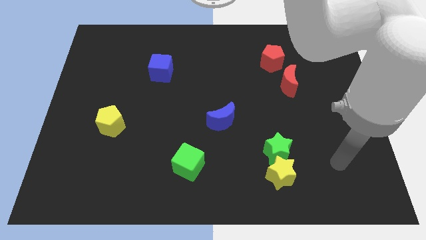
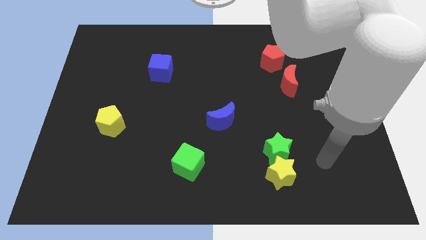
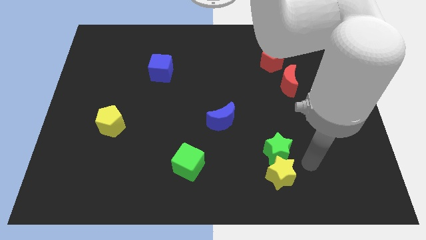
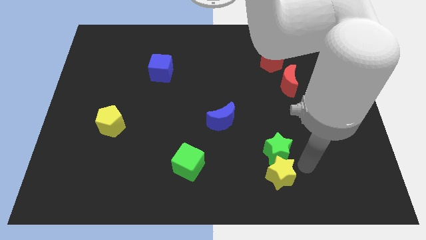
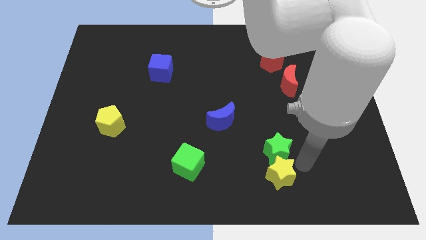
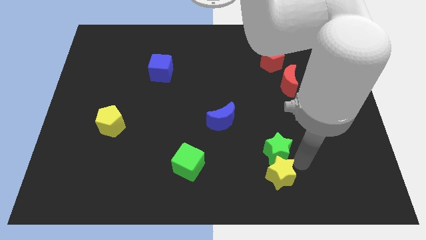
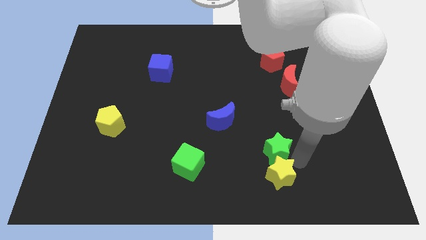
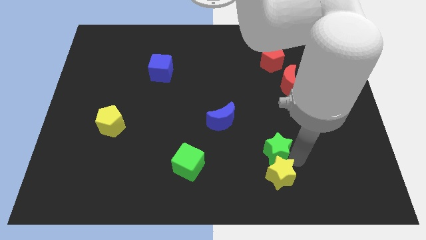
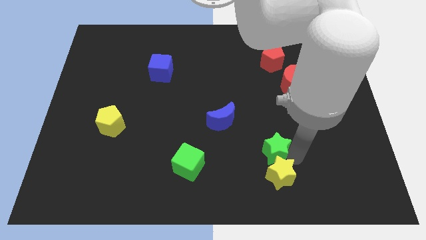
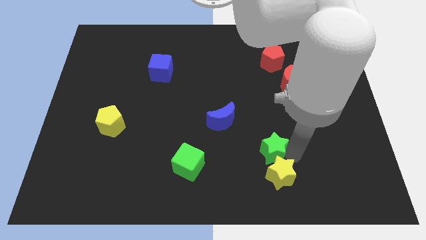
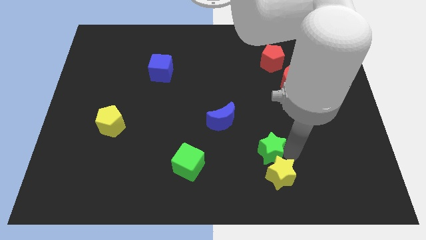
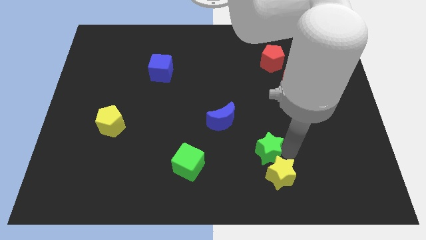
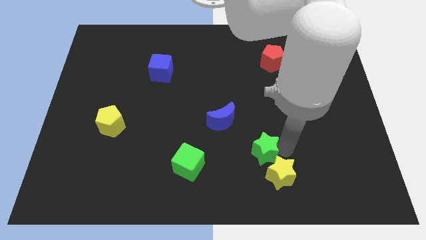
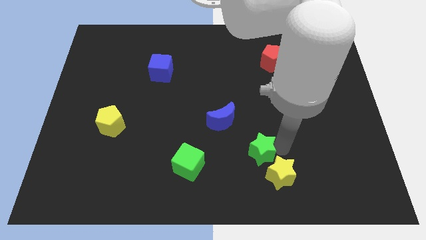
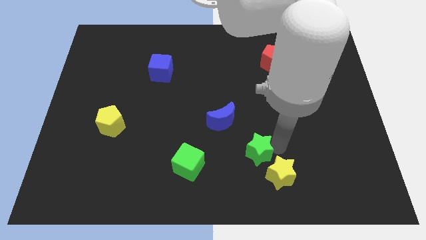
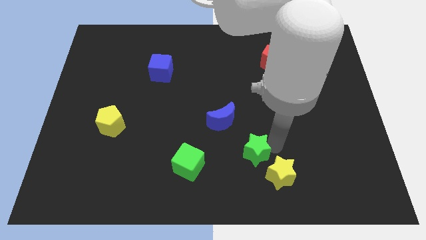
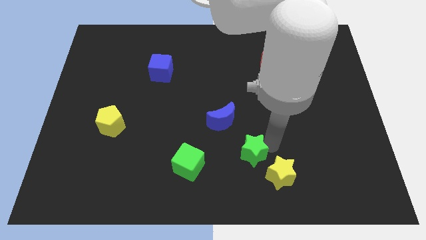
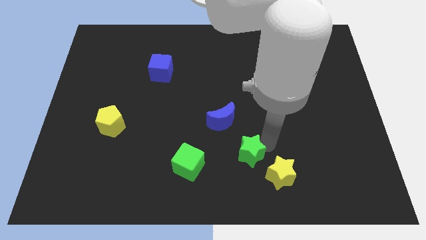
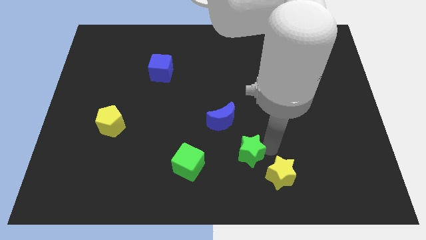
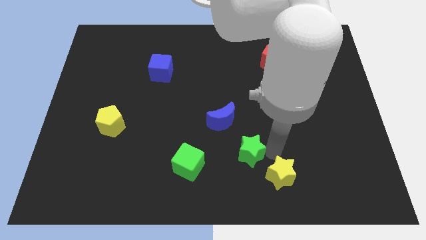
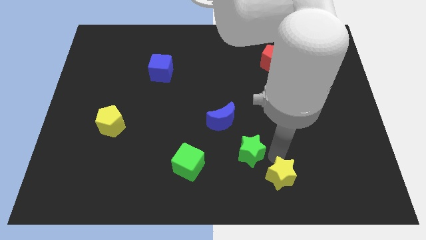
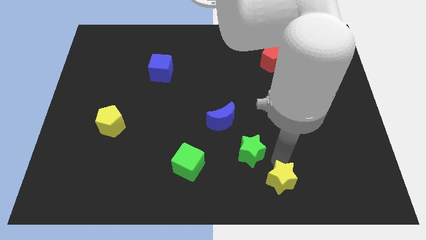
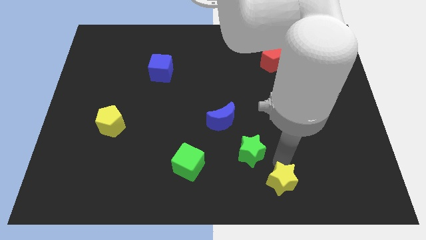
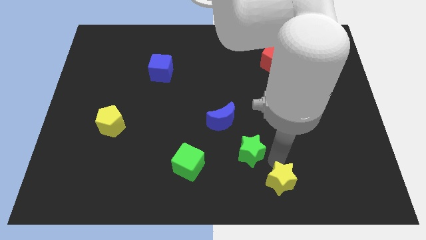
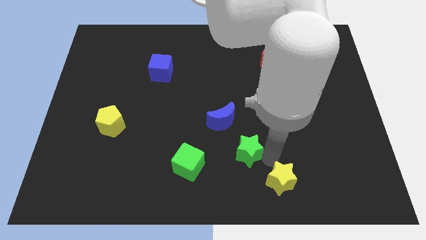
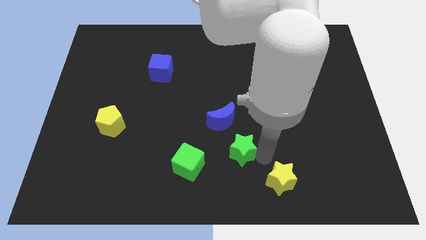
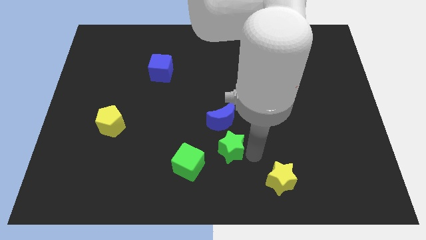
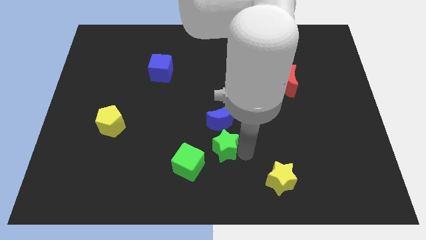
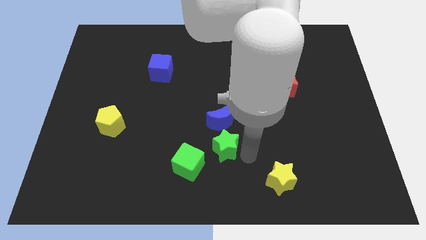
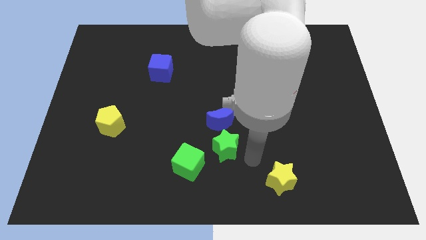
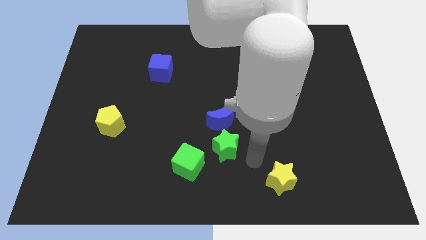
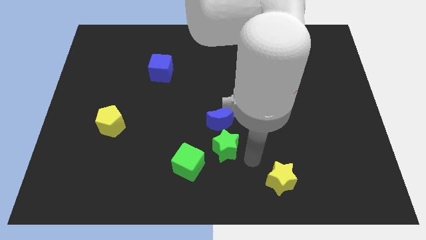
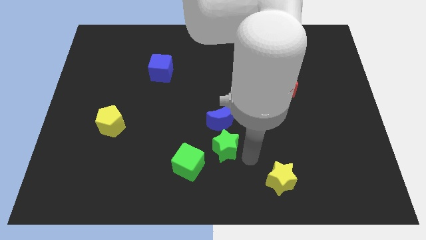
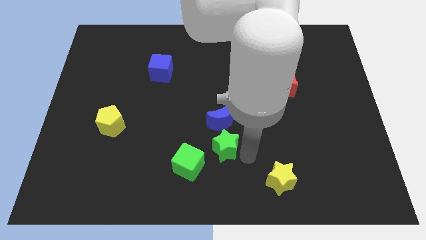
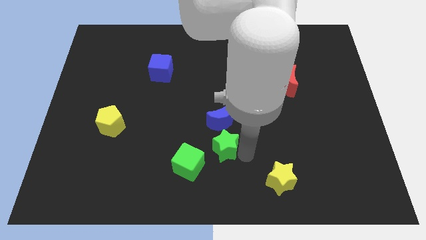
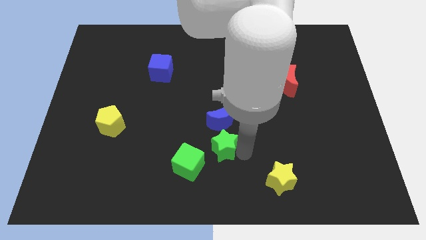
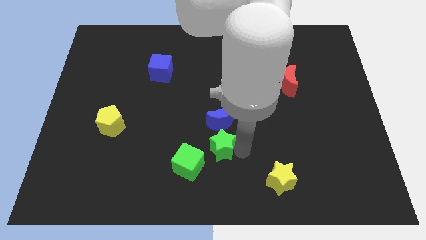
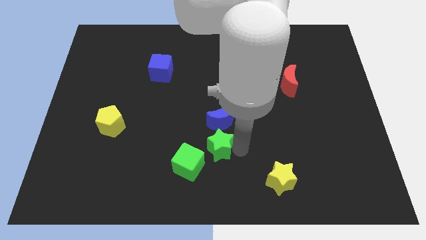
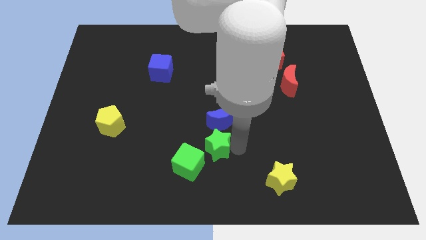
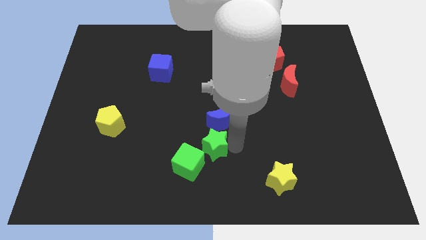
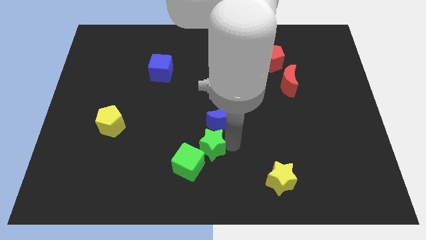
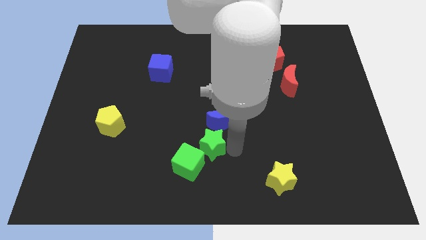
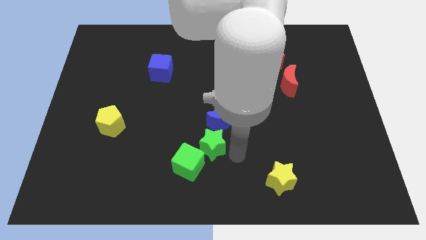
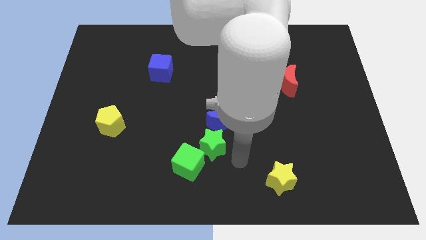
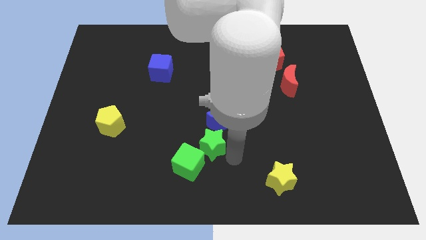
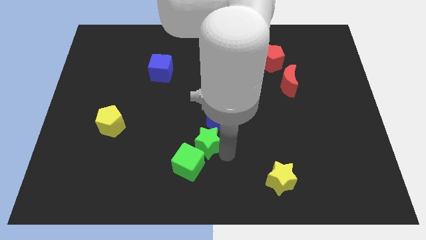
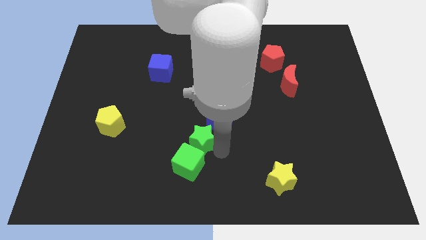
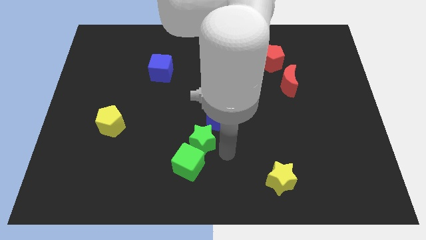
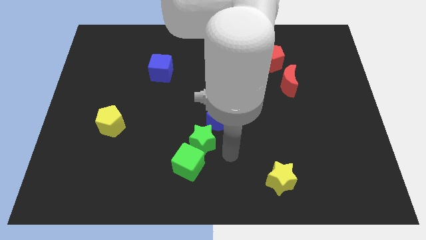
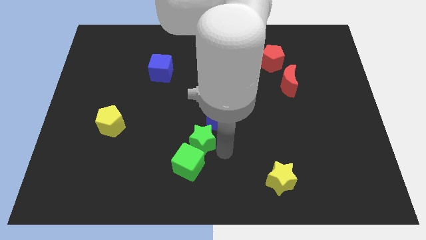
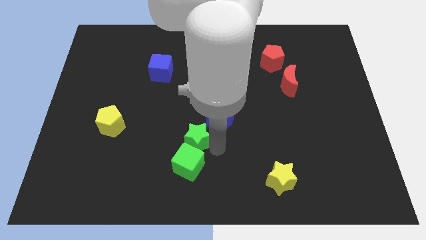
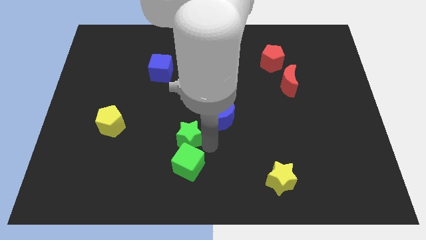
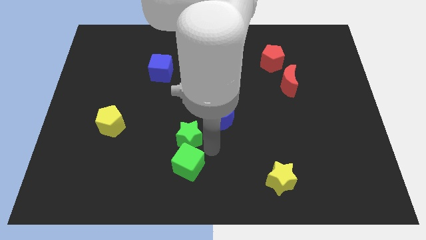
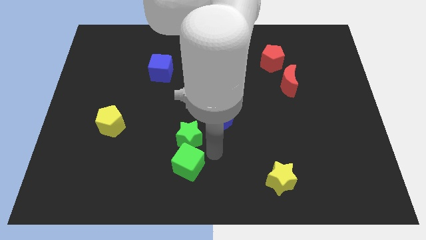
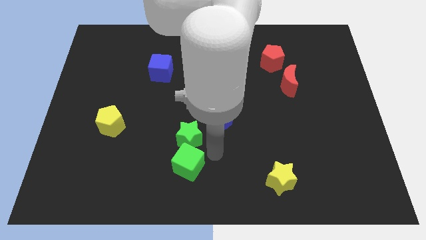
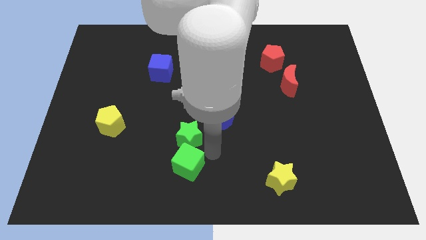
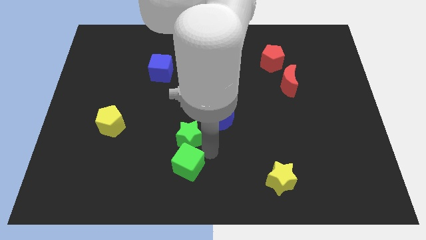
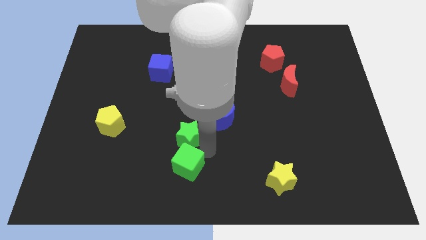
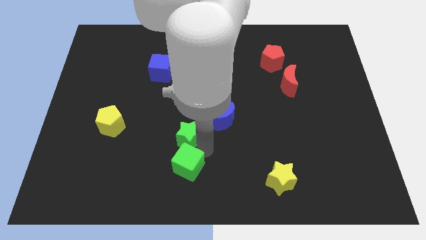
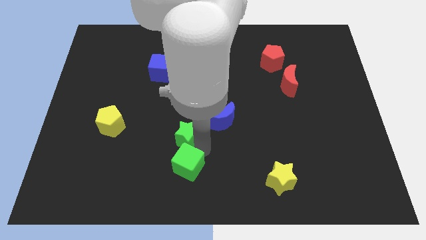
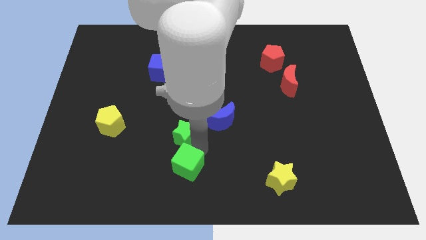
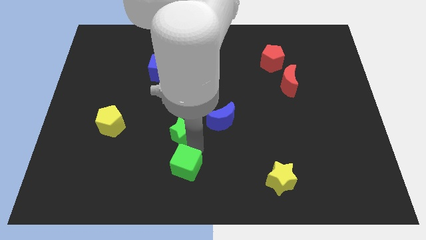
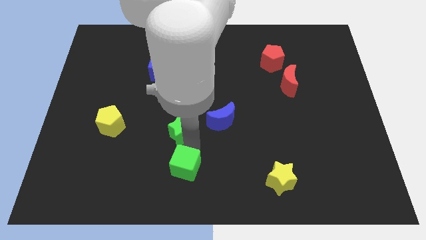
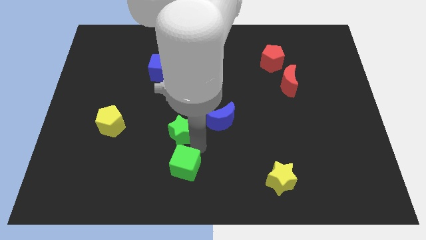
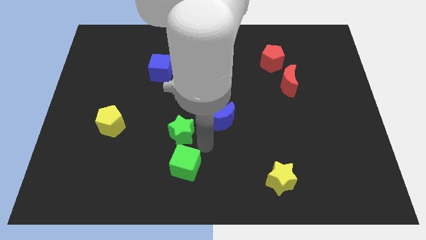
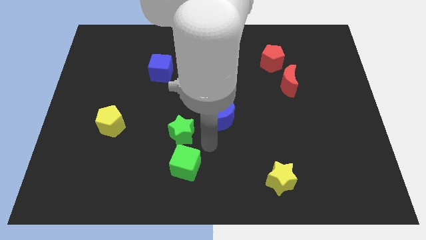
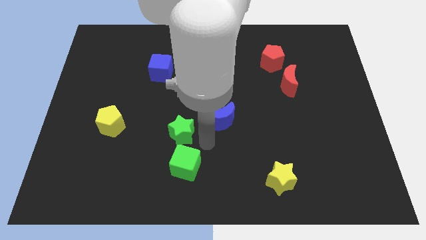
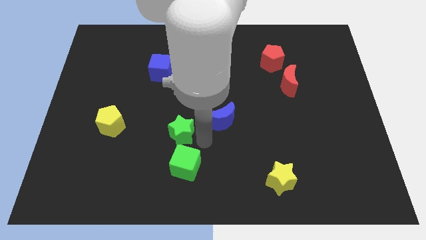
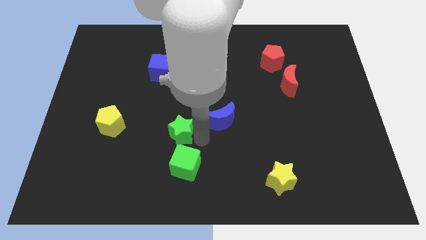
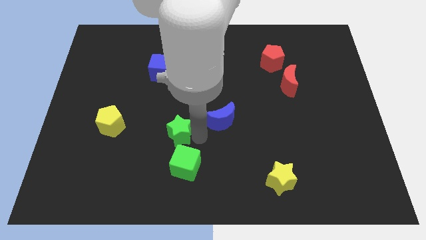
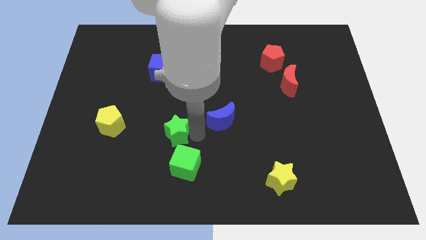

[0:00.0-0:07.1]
move the green star to the right of the yellow pentagon
